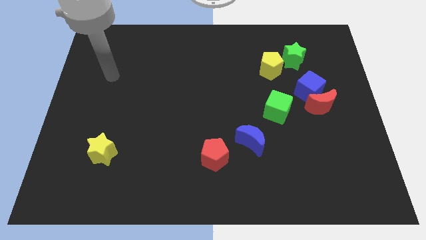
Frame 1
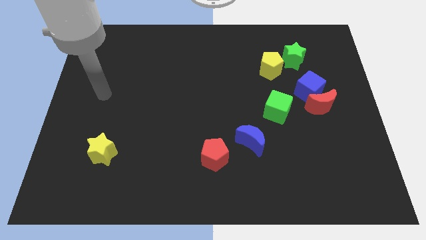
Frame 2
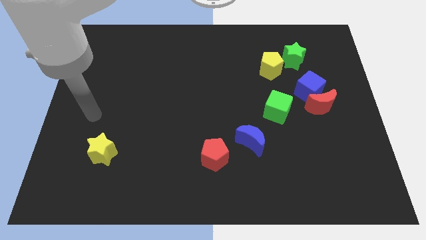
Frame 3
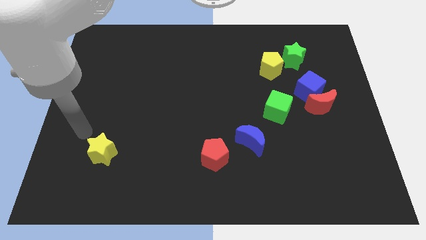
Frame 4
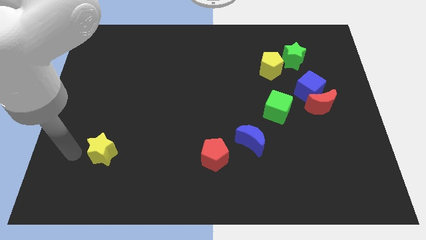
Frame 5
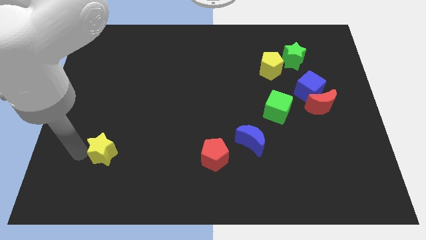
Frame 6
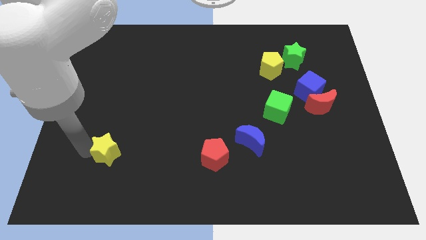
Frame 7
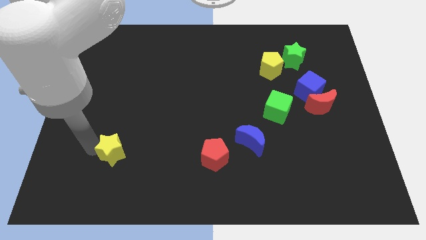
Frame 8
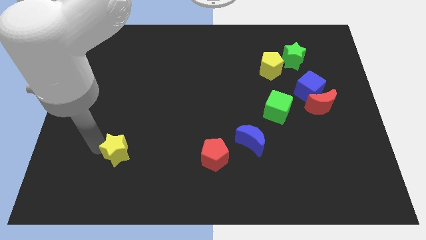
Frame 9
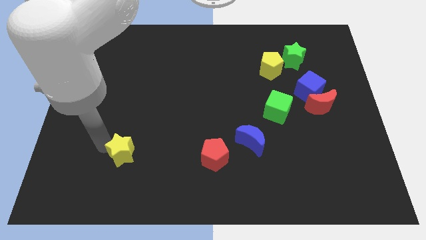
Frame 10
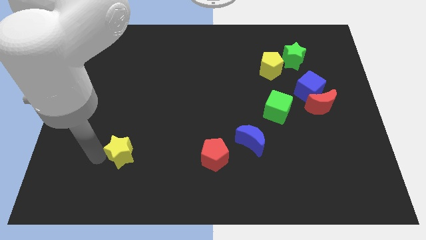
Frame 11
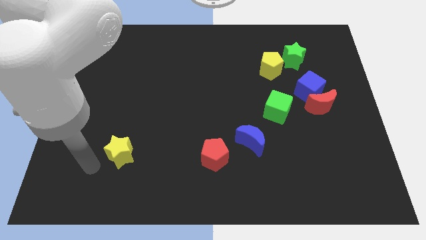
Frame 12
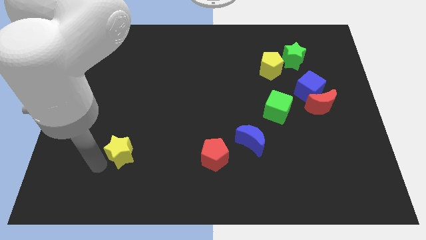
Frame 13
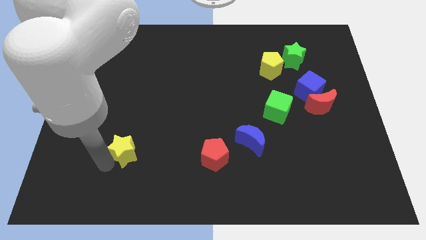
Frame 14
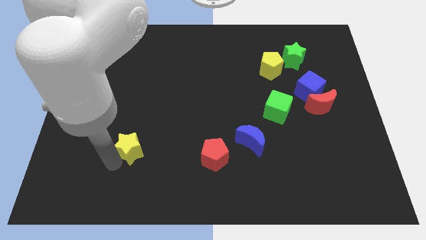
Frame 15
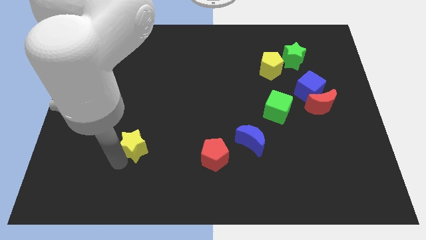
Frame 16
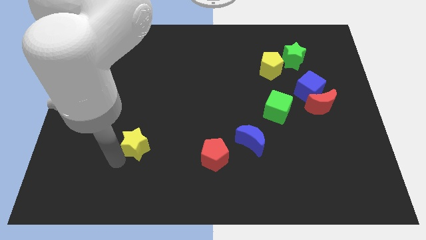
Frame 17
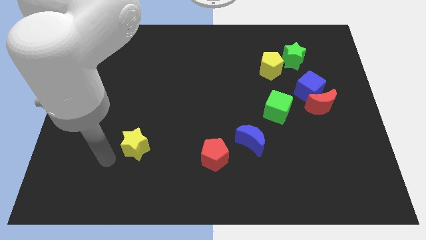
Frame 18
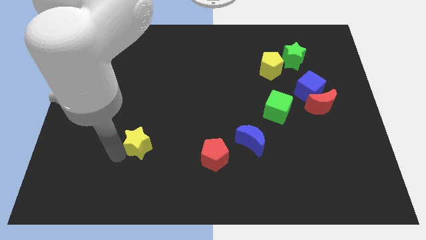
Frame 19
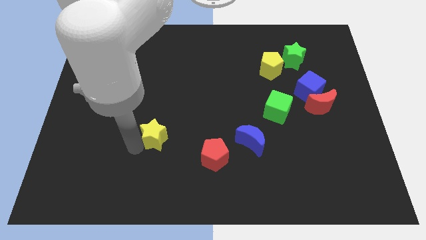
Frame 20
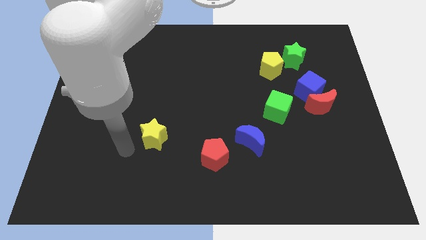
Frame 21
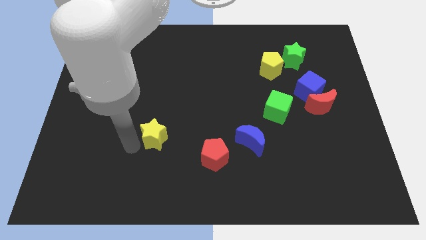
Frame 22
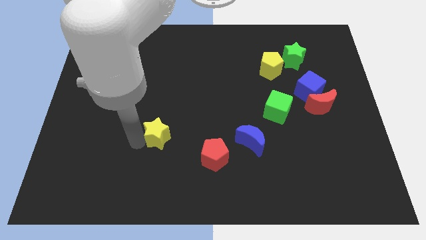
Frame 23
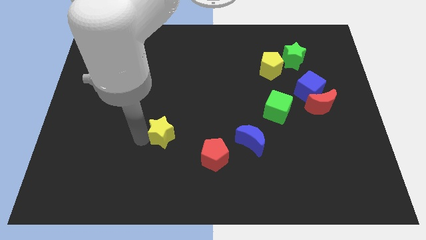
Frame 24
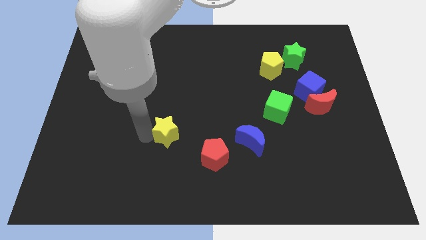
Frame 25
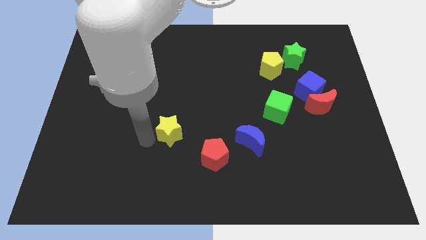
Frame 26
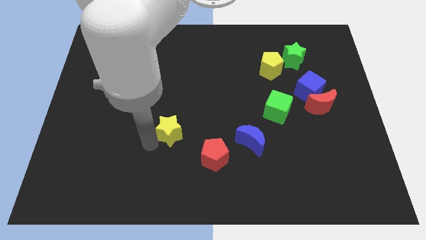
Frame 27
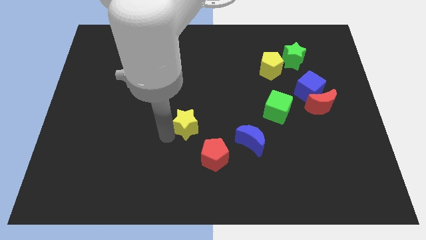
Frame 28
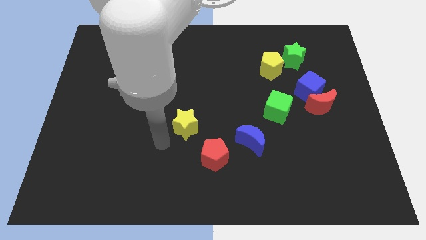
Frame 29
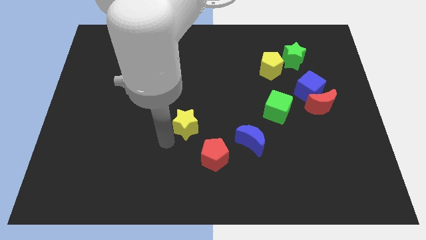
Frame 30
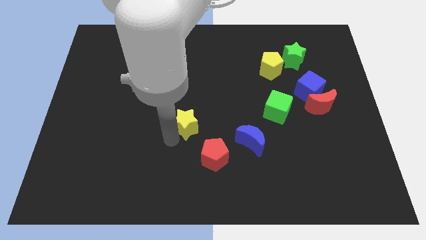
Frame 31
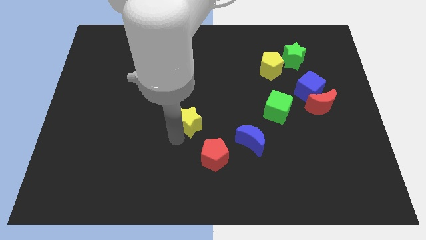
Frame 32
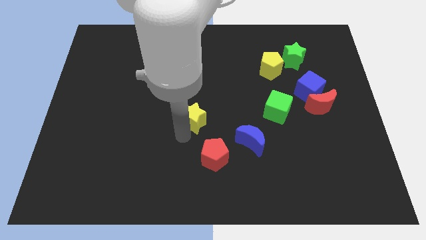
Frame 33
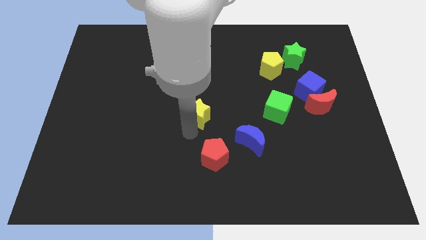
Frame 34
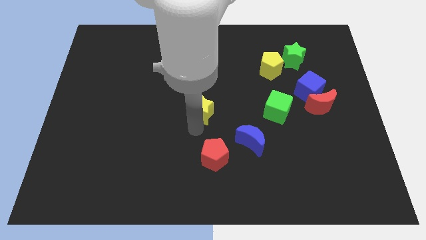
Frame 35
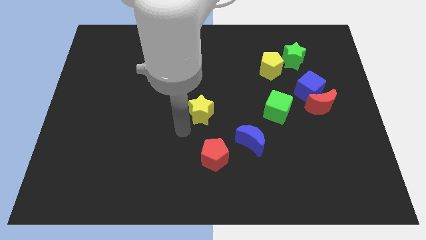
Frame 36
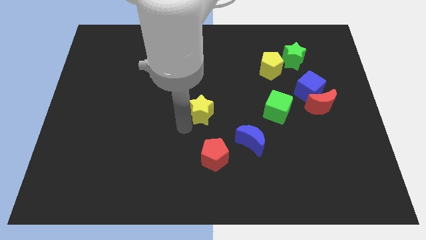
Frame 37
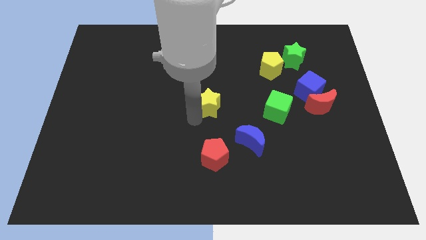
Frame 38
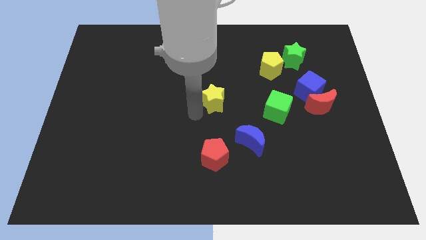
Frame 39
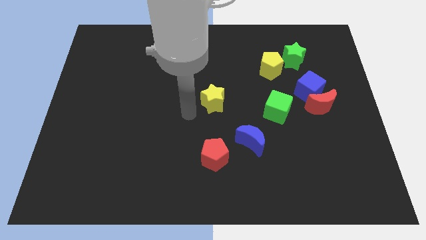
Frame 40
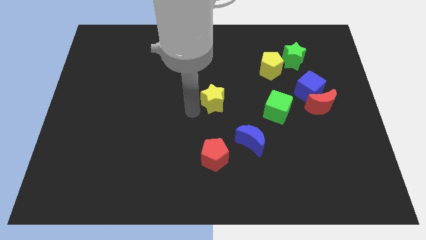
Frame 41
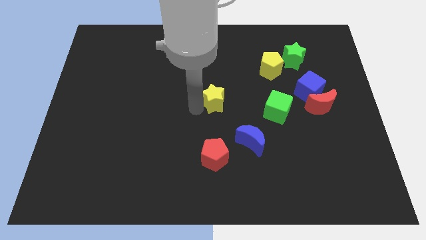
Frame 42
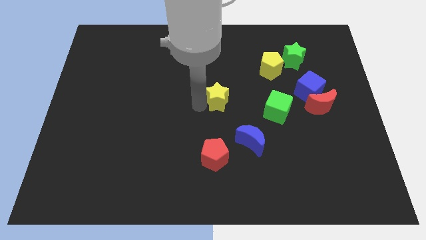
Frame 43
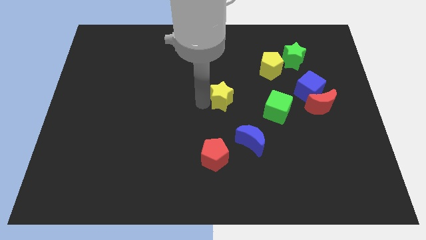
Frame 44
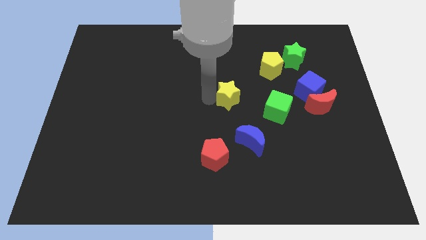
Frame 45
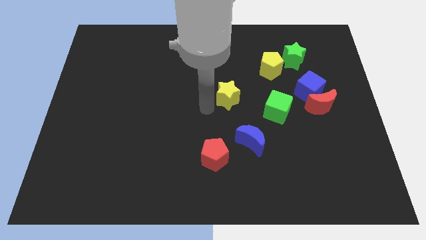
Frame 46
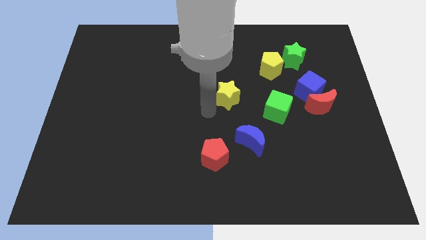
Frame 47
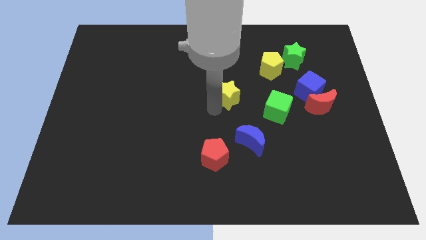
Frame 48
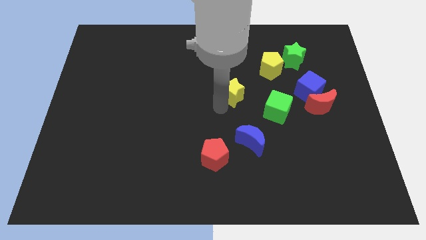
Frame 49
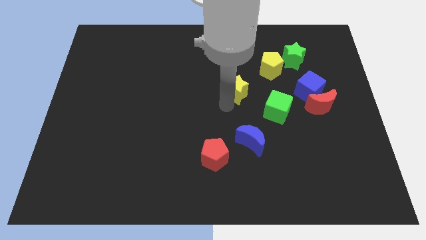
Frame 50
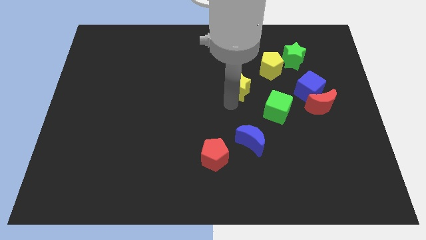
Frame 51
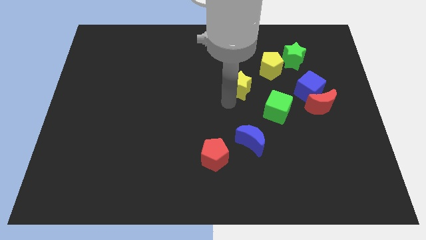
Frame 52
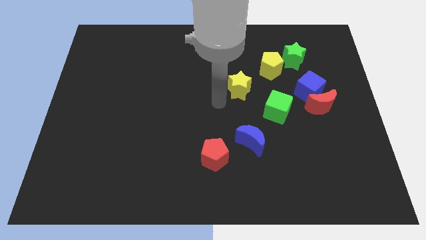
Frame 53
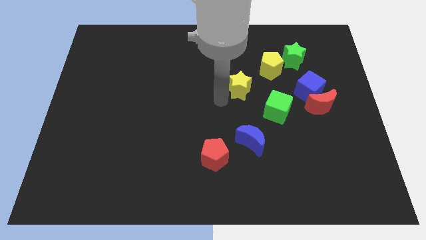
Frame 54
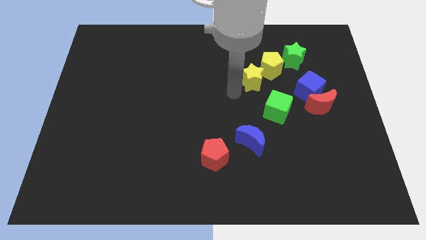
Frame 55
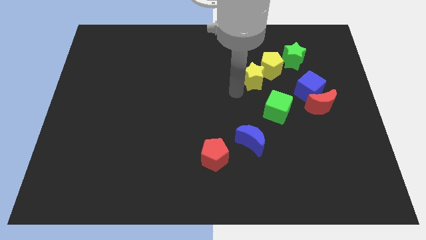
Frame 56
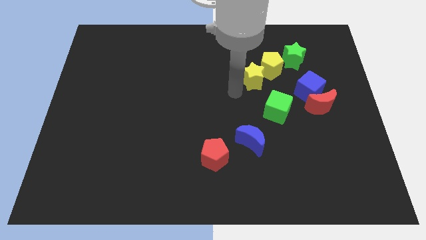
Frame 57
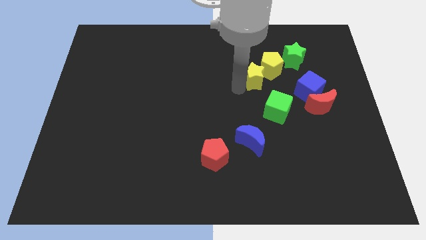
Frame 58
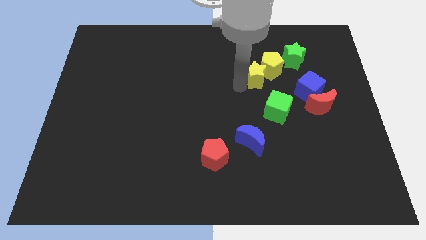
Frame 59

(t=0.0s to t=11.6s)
put the yellow star towards the yellow pentagon
